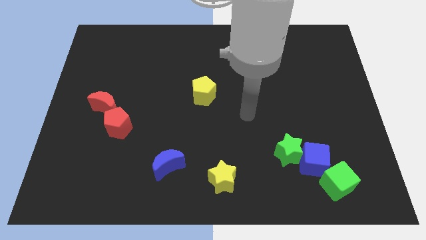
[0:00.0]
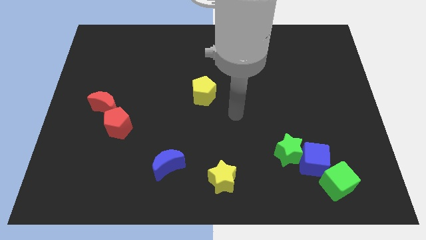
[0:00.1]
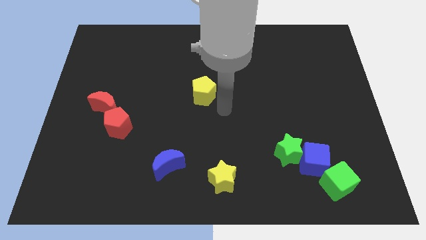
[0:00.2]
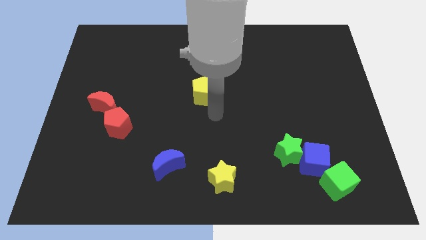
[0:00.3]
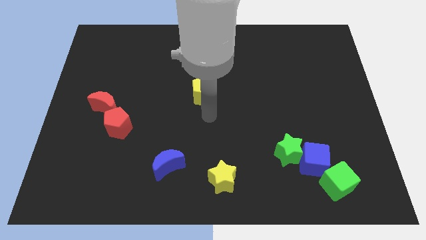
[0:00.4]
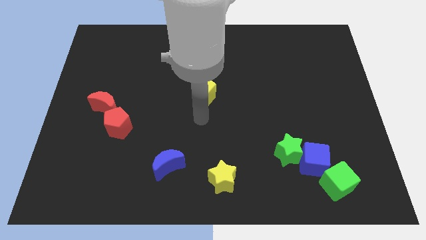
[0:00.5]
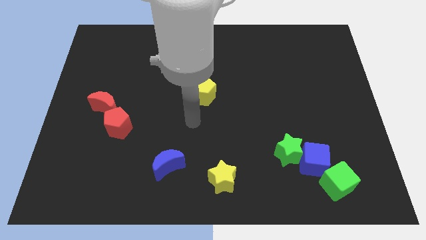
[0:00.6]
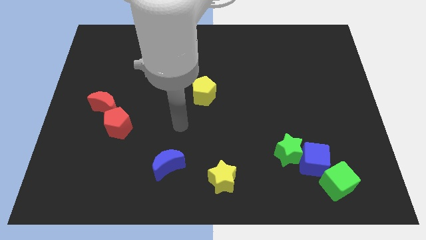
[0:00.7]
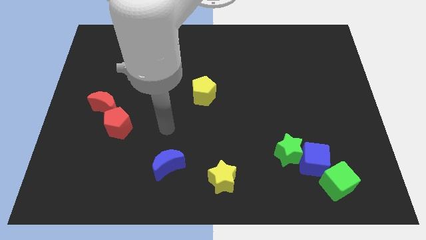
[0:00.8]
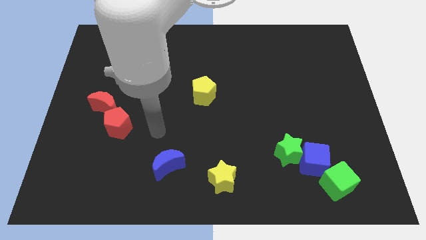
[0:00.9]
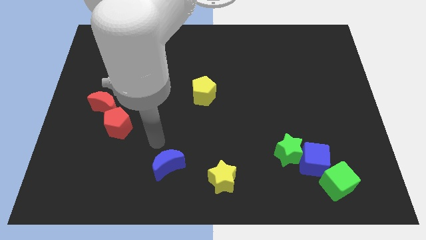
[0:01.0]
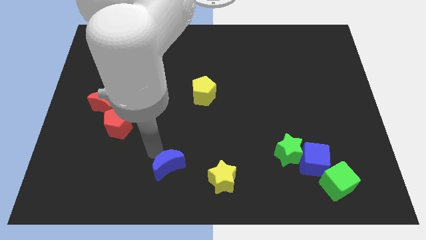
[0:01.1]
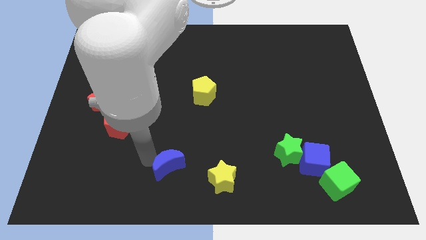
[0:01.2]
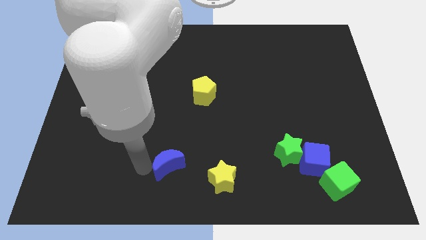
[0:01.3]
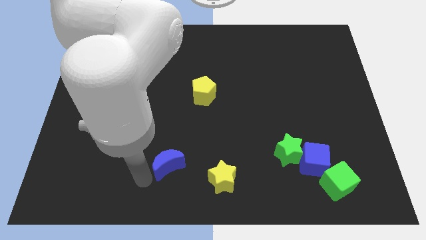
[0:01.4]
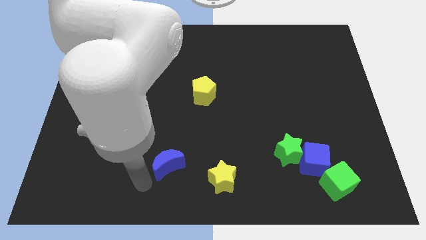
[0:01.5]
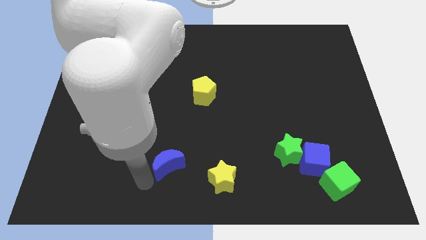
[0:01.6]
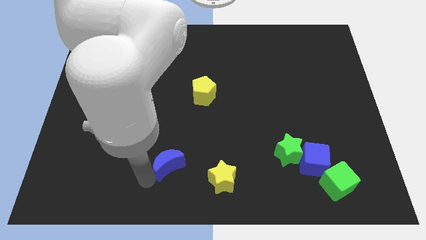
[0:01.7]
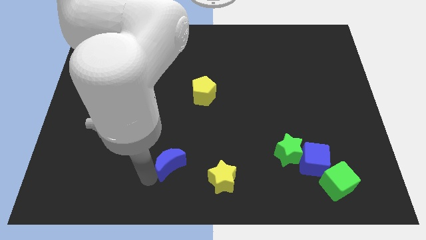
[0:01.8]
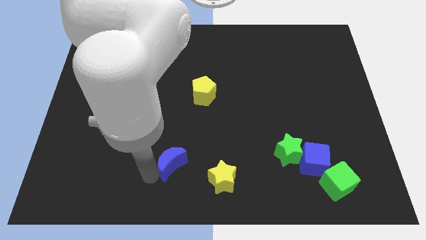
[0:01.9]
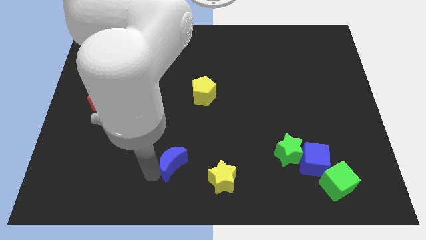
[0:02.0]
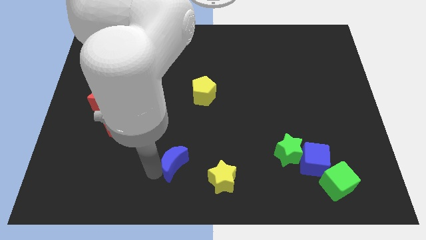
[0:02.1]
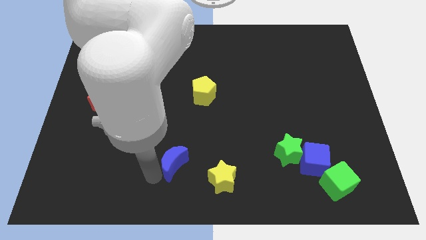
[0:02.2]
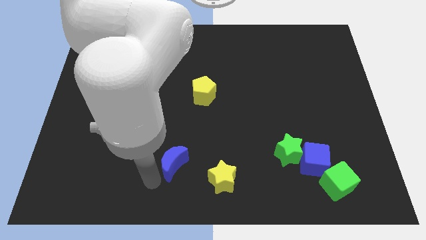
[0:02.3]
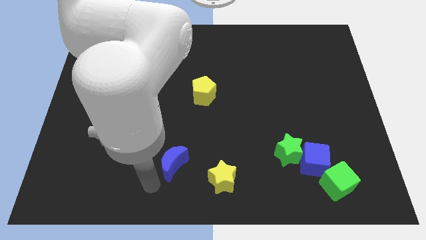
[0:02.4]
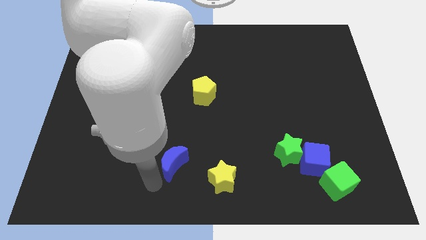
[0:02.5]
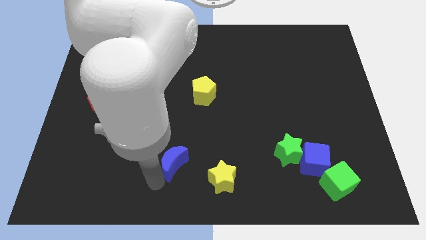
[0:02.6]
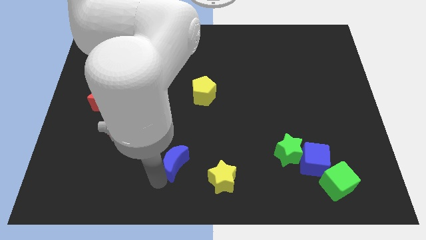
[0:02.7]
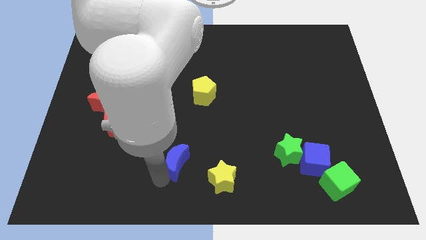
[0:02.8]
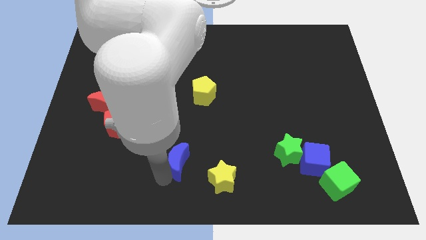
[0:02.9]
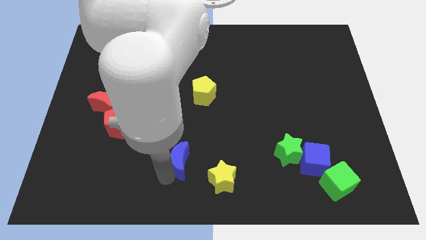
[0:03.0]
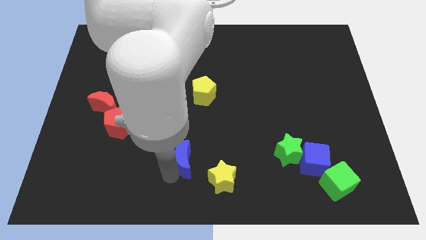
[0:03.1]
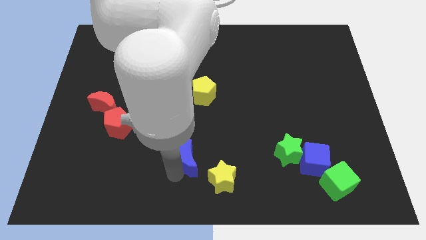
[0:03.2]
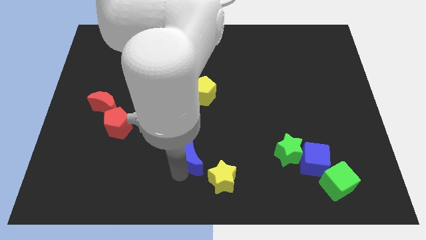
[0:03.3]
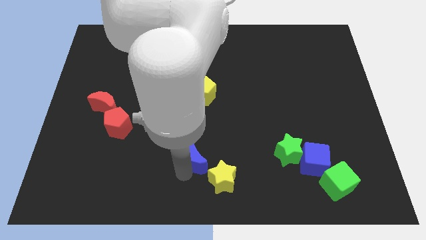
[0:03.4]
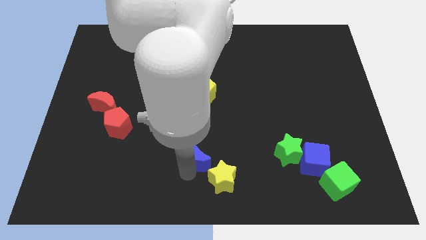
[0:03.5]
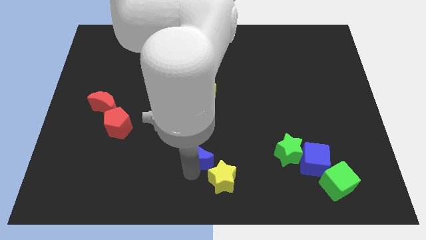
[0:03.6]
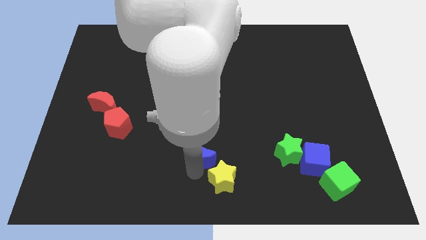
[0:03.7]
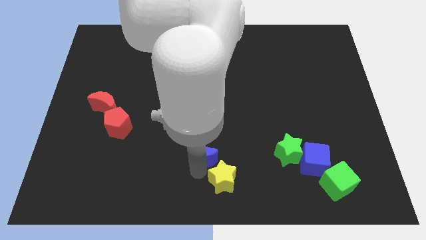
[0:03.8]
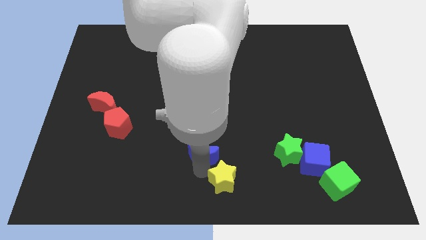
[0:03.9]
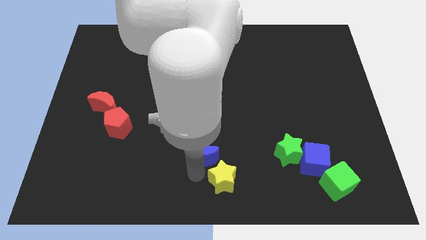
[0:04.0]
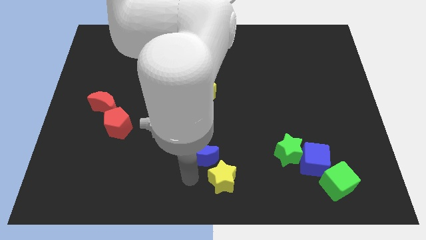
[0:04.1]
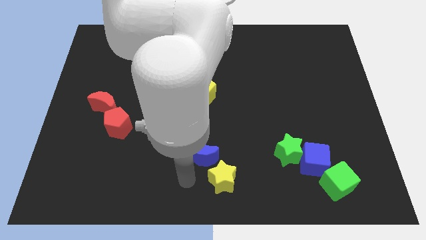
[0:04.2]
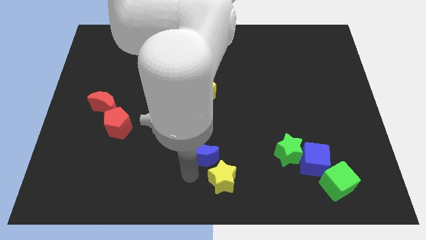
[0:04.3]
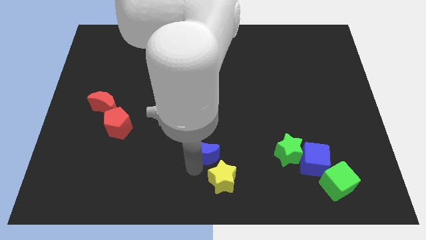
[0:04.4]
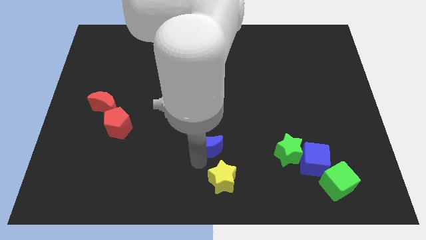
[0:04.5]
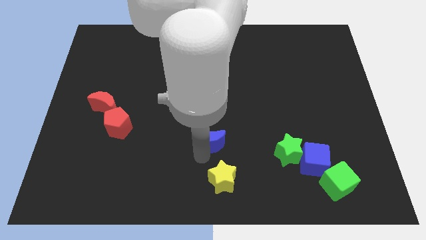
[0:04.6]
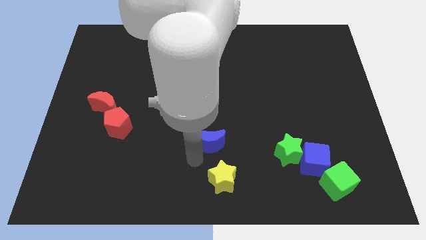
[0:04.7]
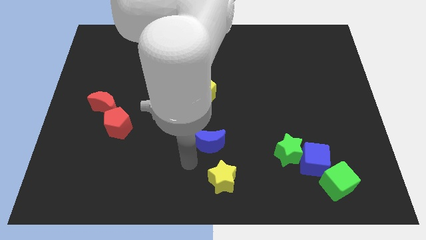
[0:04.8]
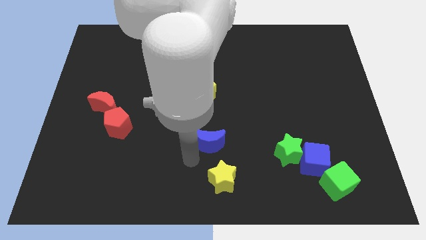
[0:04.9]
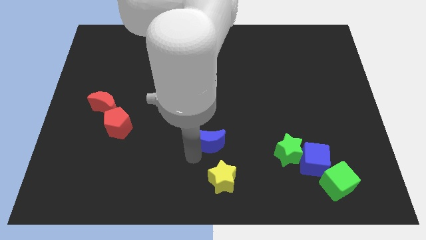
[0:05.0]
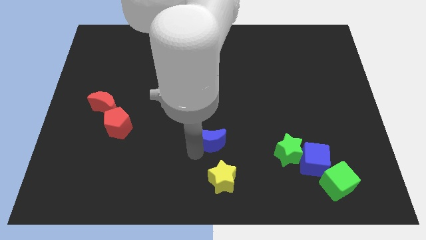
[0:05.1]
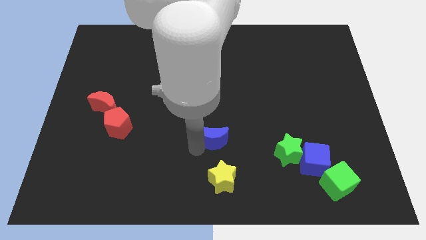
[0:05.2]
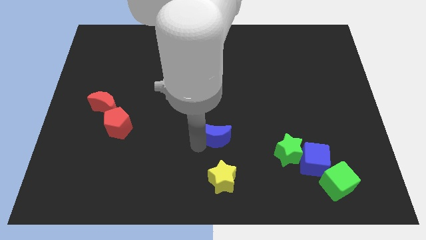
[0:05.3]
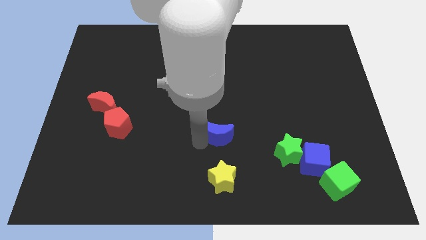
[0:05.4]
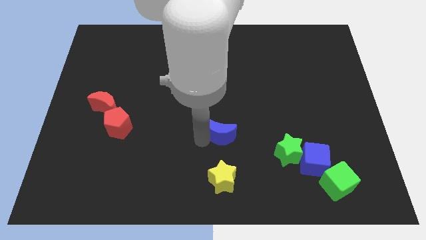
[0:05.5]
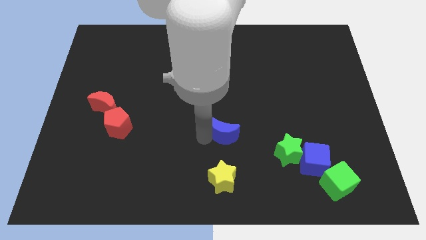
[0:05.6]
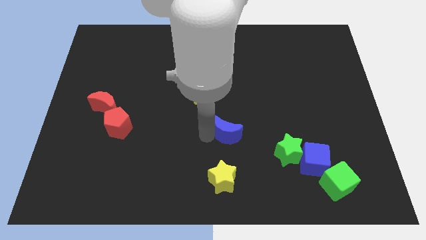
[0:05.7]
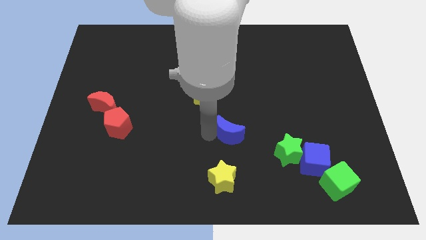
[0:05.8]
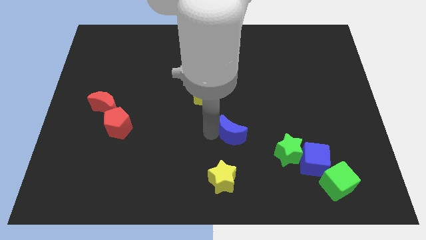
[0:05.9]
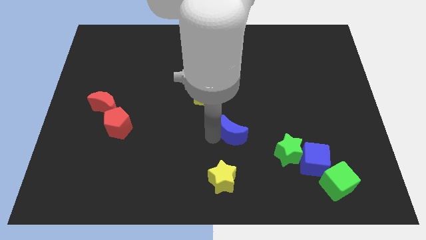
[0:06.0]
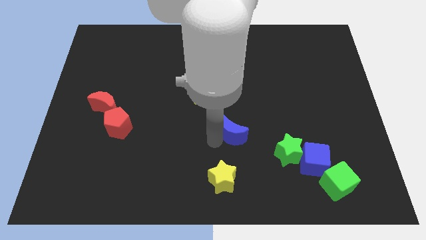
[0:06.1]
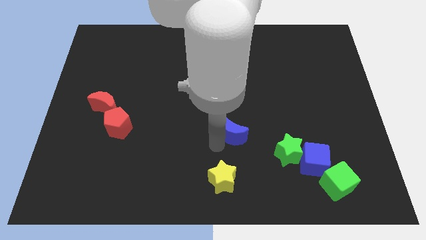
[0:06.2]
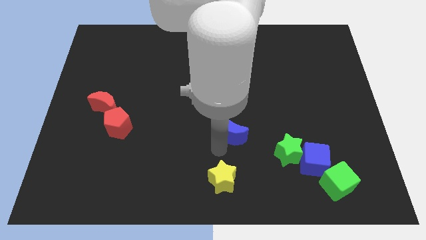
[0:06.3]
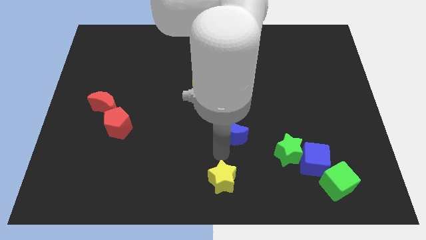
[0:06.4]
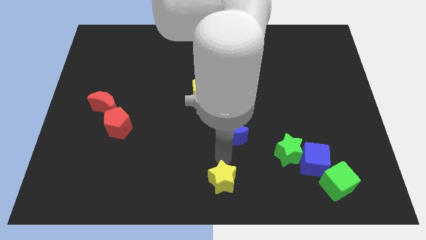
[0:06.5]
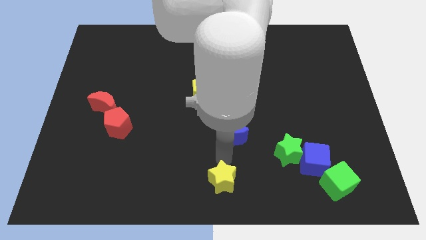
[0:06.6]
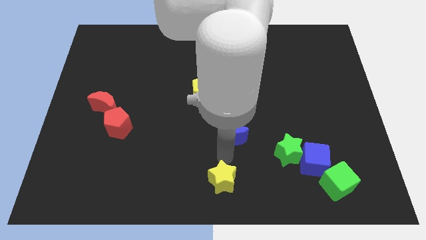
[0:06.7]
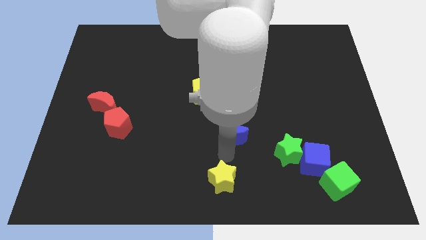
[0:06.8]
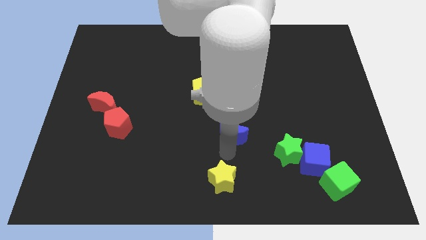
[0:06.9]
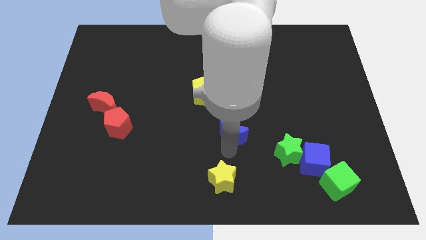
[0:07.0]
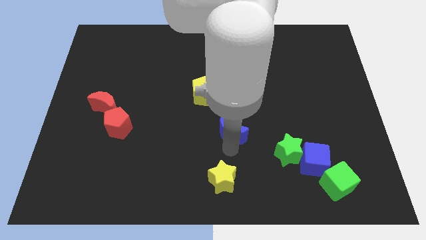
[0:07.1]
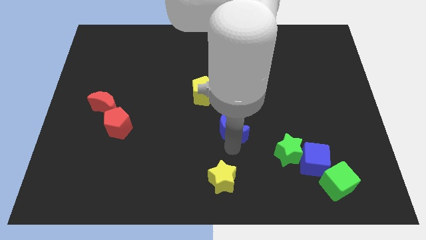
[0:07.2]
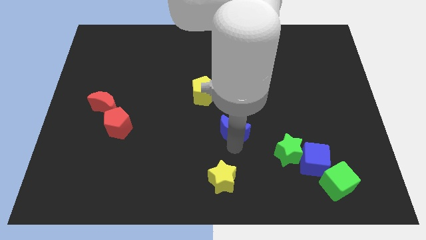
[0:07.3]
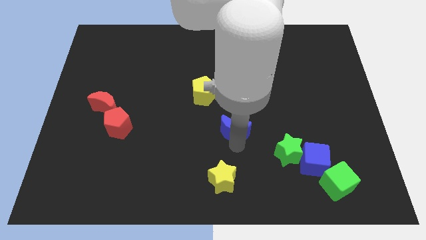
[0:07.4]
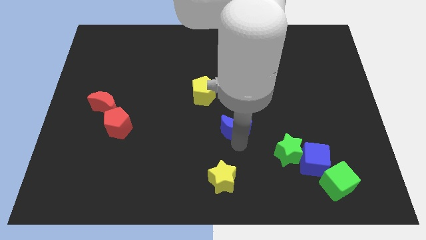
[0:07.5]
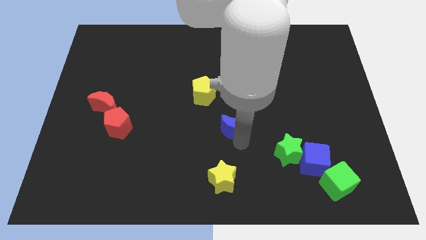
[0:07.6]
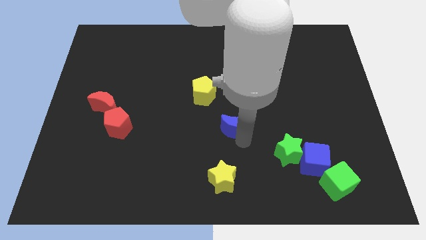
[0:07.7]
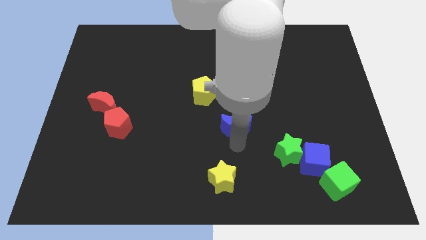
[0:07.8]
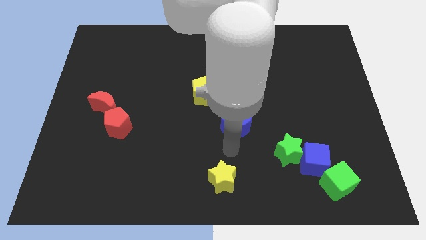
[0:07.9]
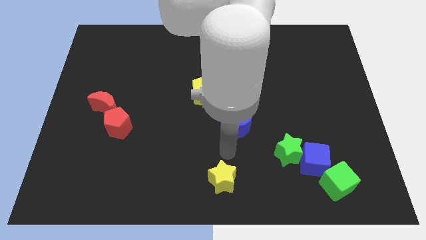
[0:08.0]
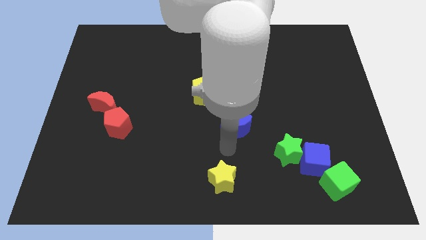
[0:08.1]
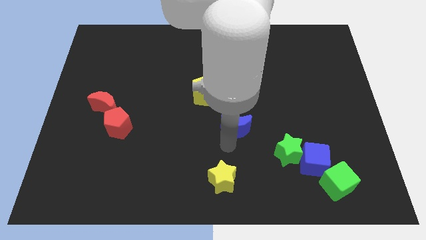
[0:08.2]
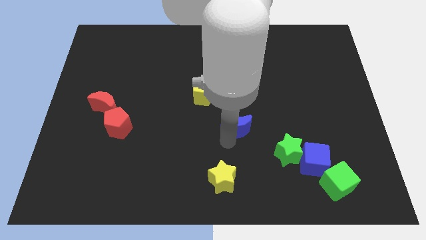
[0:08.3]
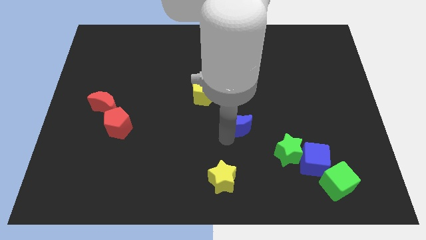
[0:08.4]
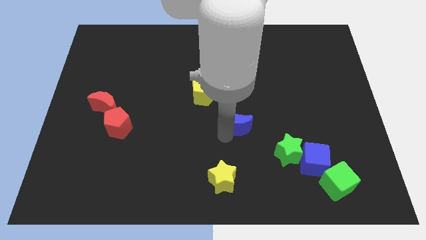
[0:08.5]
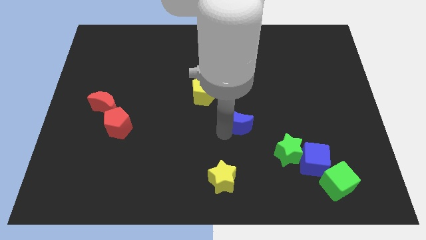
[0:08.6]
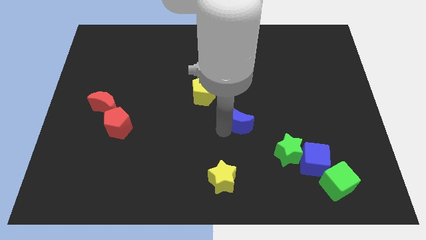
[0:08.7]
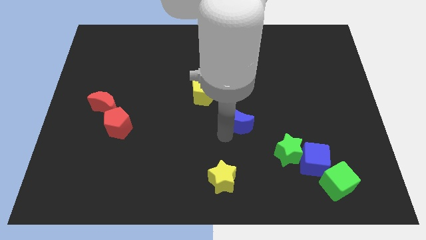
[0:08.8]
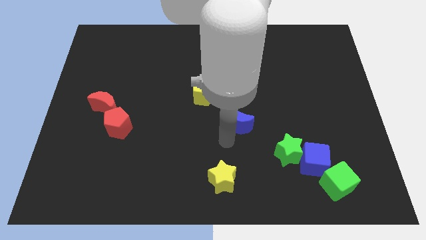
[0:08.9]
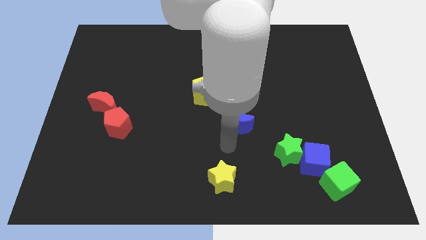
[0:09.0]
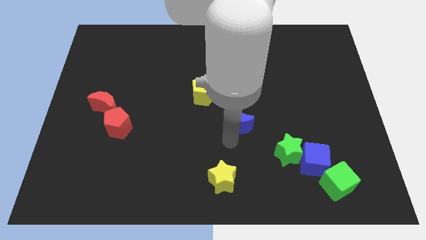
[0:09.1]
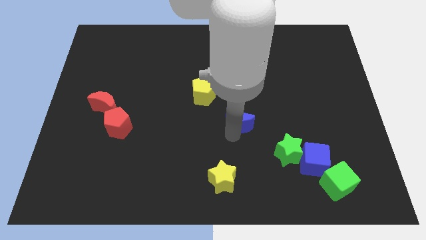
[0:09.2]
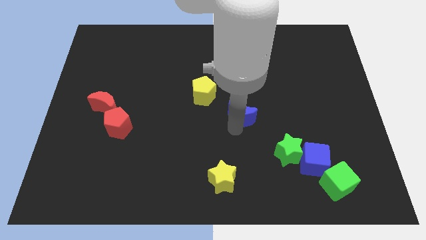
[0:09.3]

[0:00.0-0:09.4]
slide the blue moon upwards and to the right
